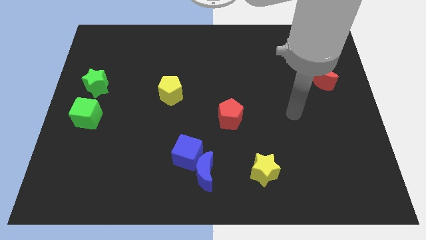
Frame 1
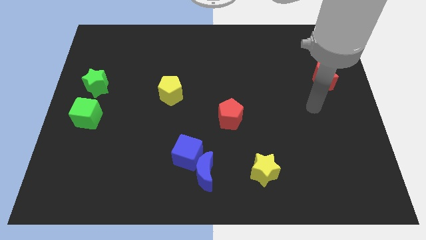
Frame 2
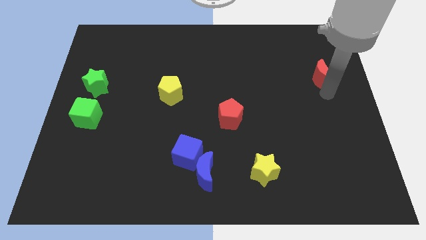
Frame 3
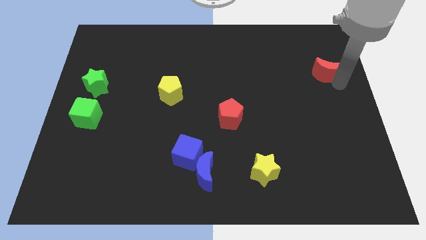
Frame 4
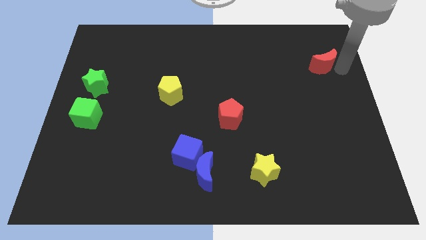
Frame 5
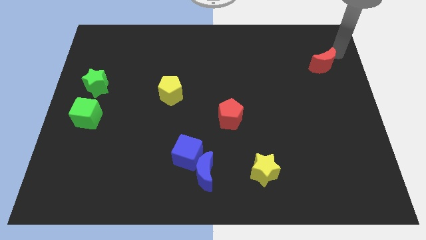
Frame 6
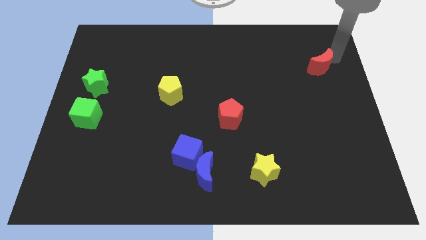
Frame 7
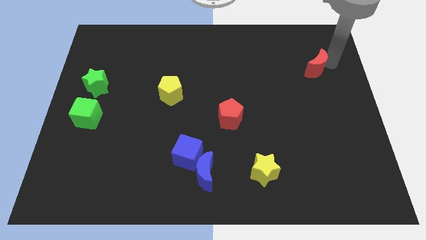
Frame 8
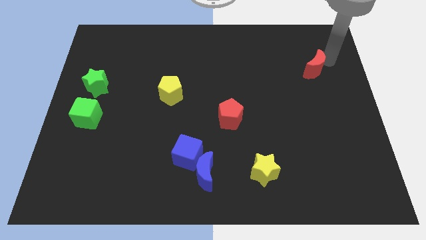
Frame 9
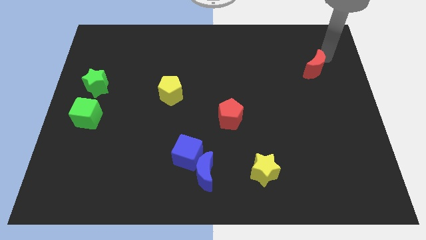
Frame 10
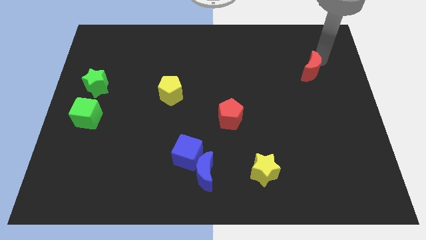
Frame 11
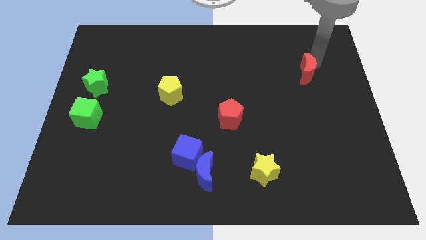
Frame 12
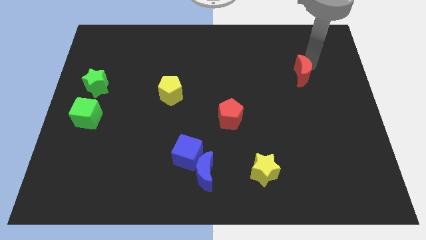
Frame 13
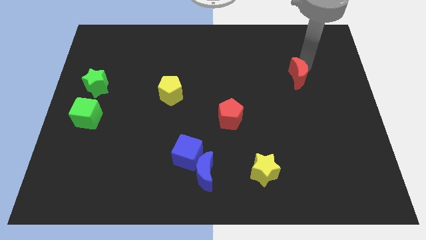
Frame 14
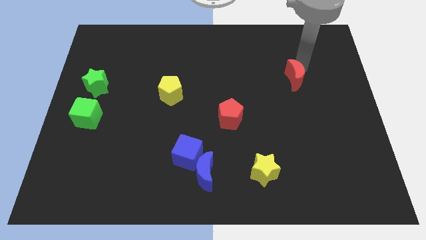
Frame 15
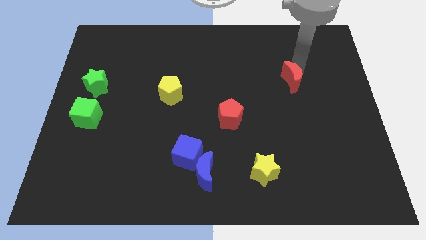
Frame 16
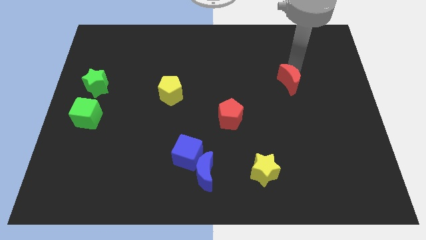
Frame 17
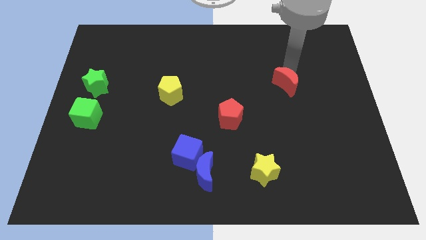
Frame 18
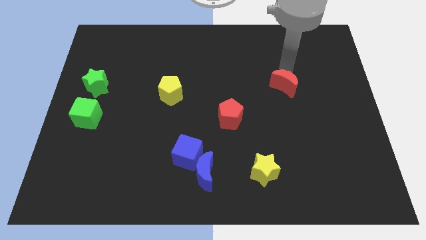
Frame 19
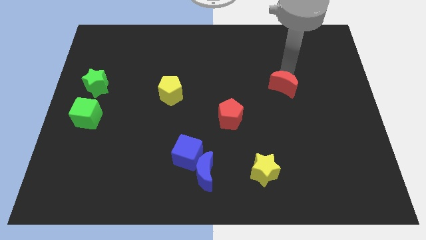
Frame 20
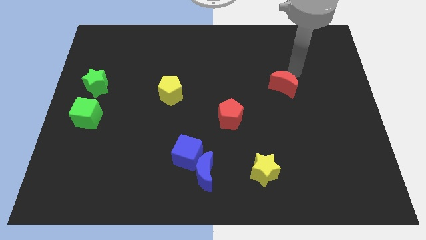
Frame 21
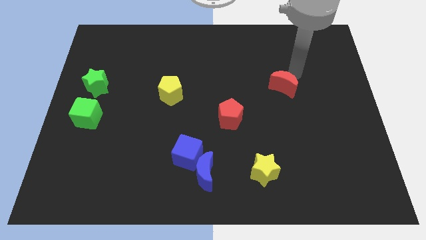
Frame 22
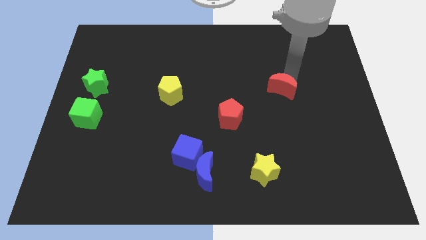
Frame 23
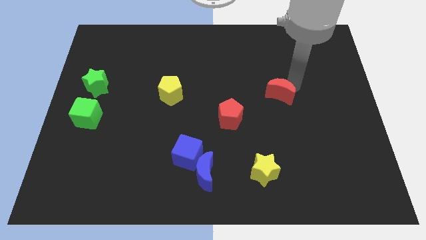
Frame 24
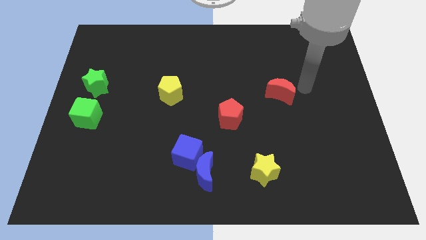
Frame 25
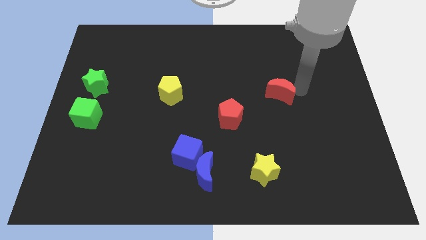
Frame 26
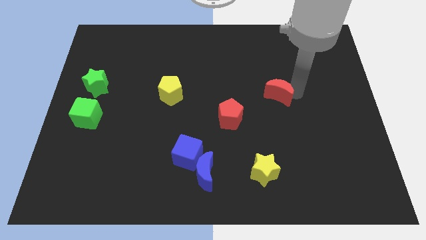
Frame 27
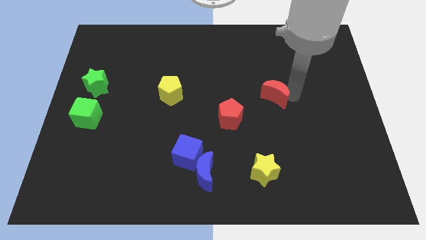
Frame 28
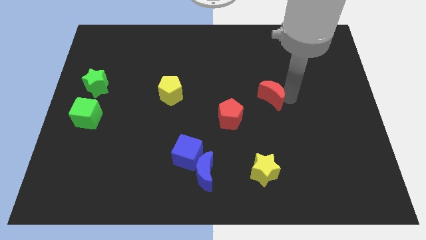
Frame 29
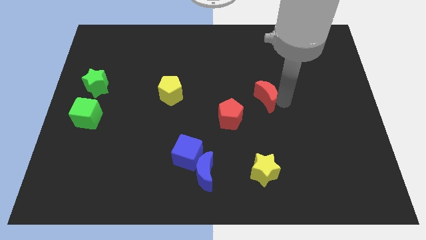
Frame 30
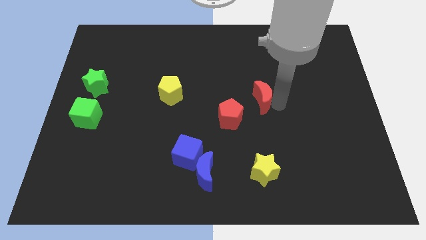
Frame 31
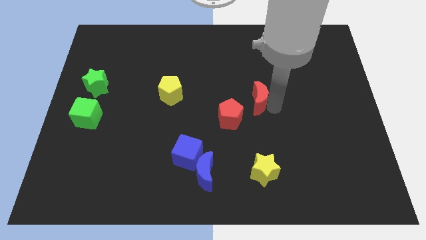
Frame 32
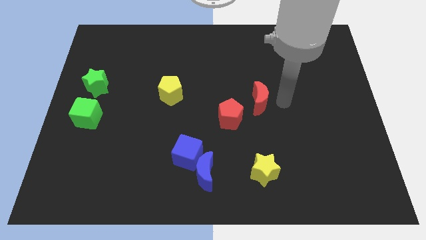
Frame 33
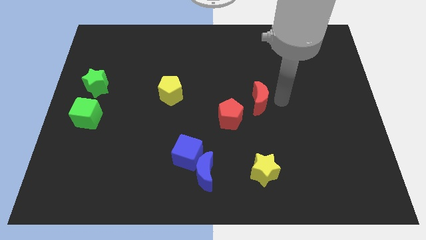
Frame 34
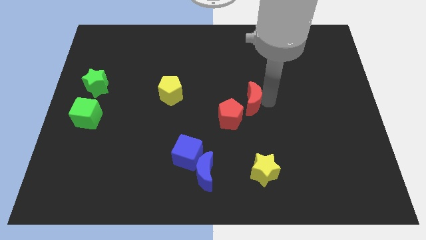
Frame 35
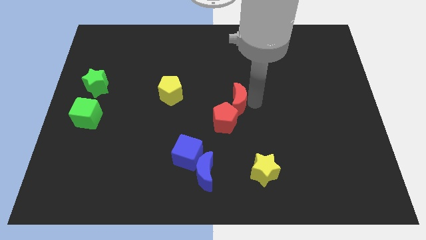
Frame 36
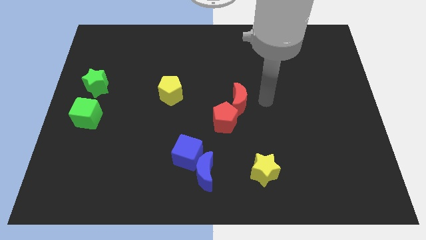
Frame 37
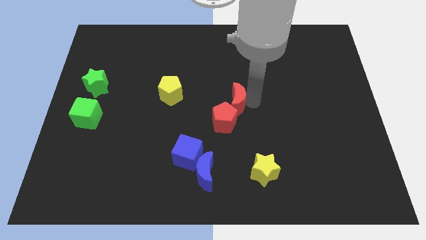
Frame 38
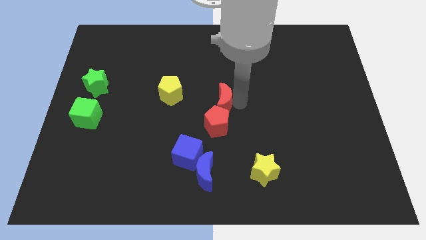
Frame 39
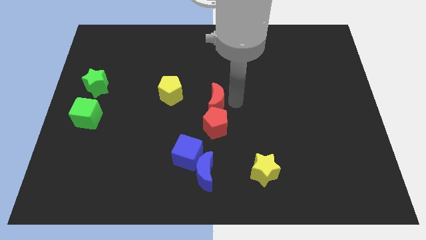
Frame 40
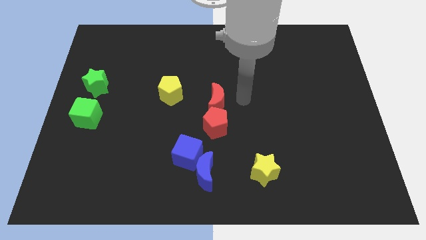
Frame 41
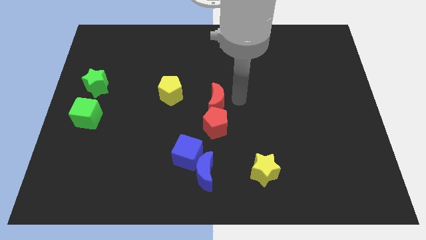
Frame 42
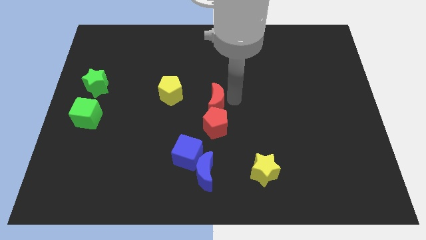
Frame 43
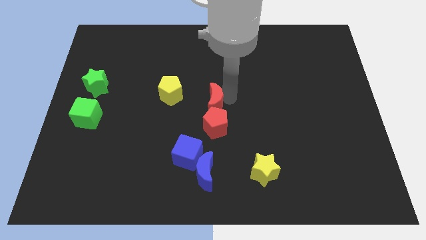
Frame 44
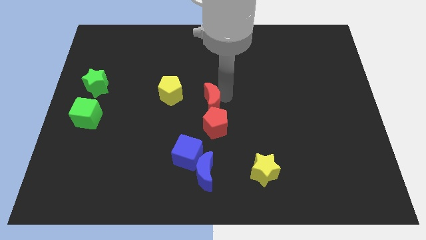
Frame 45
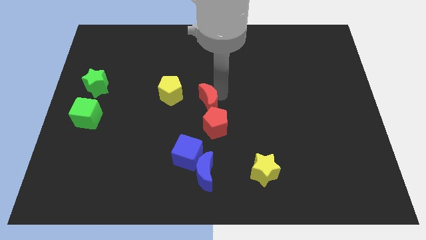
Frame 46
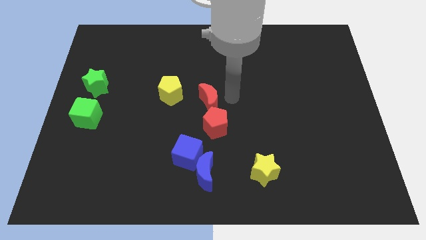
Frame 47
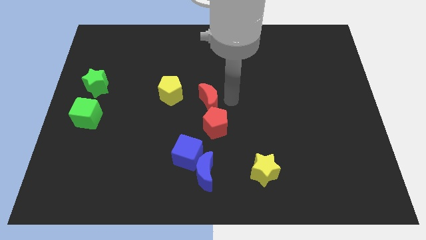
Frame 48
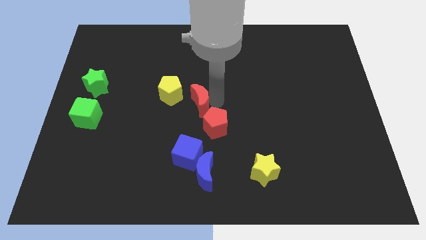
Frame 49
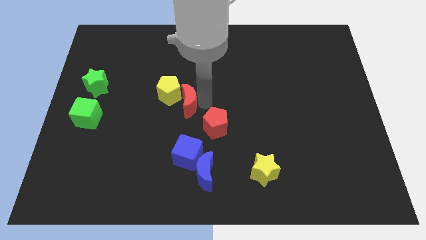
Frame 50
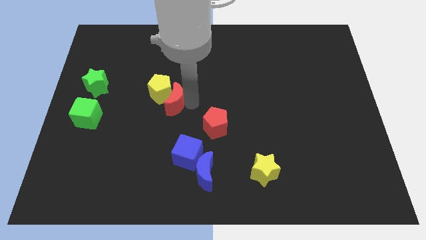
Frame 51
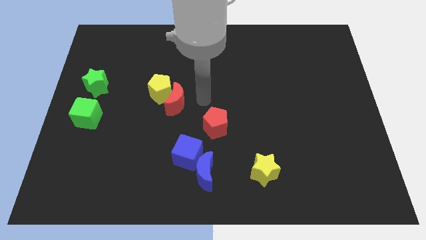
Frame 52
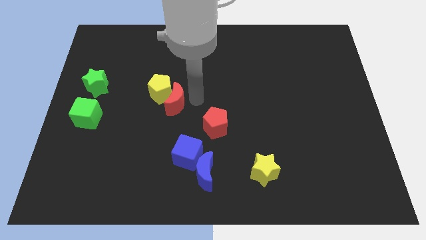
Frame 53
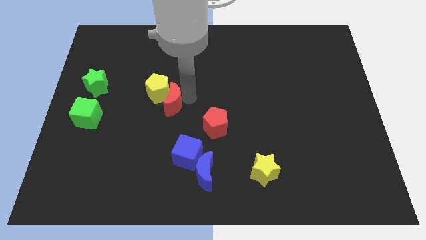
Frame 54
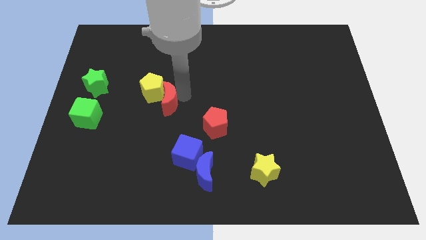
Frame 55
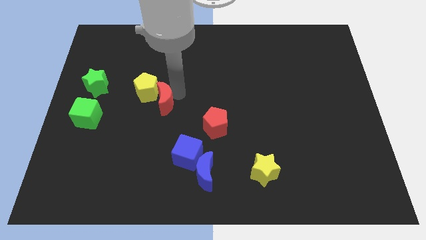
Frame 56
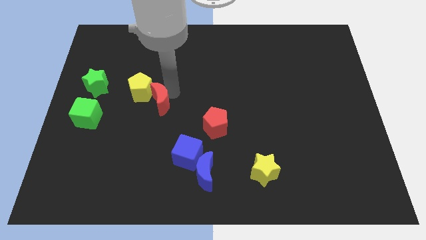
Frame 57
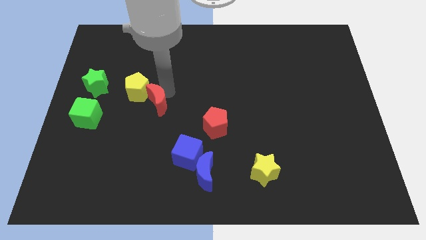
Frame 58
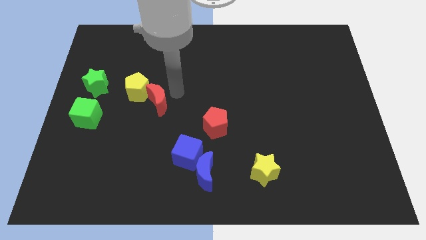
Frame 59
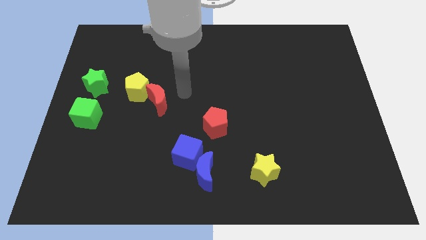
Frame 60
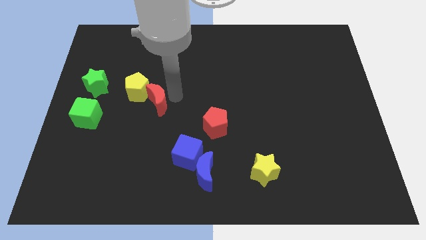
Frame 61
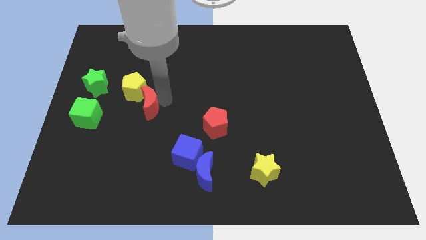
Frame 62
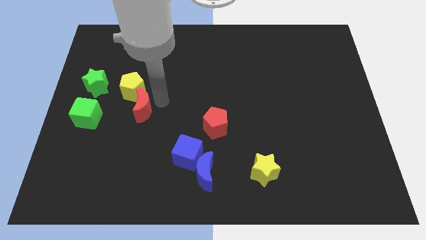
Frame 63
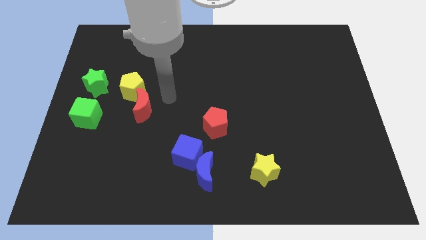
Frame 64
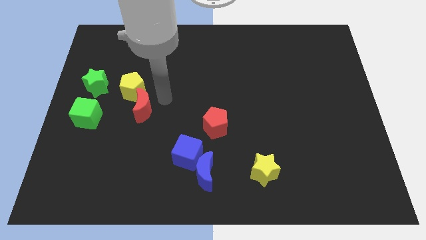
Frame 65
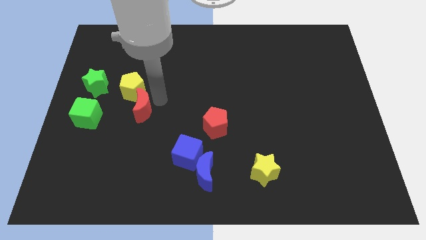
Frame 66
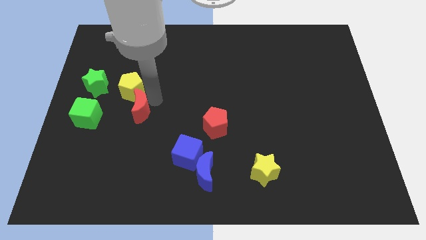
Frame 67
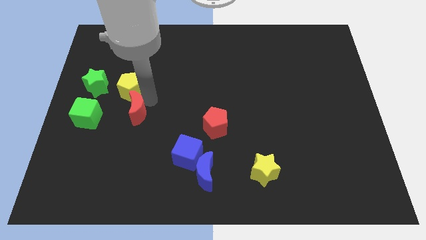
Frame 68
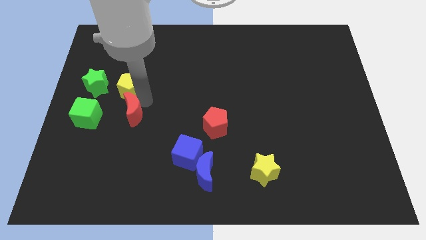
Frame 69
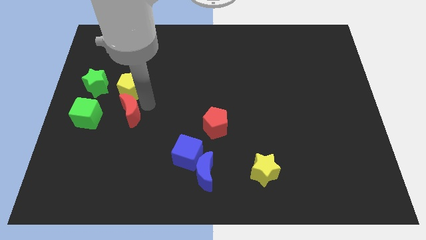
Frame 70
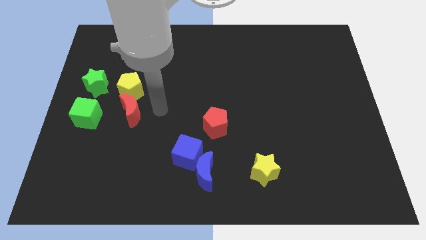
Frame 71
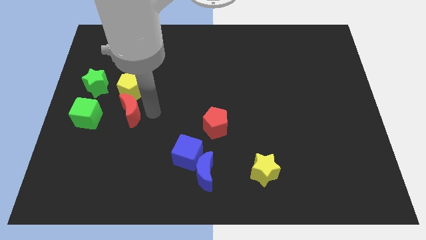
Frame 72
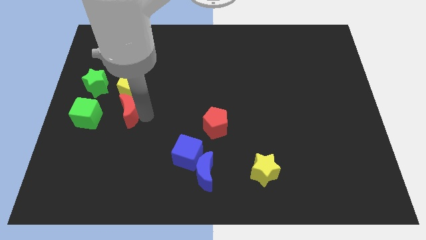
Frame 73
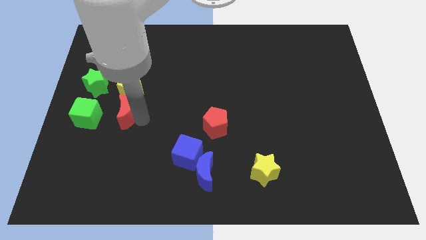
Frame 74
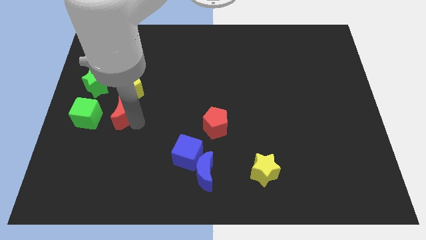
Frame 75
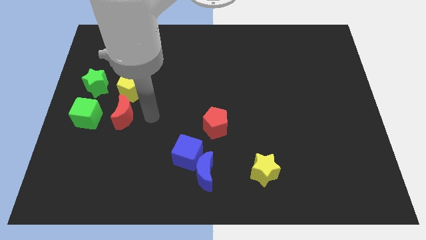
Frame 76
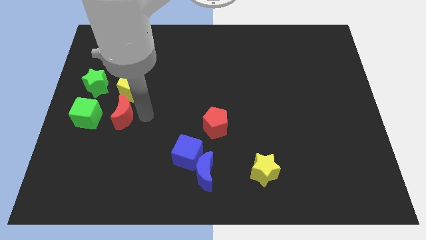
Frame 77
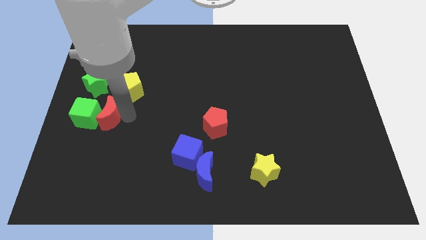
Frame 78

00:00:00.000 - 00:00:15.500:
push the red moon next to the green cube
